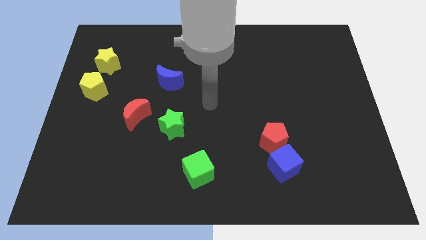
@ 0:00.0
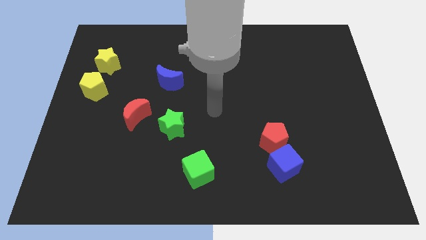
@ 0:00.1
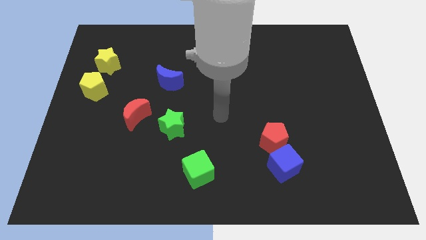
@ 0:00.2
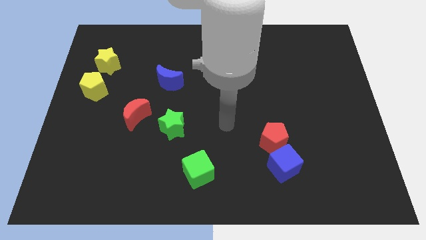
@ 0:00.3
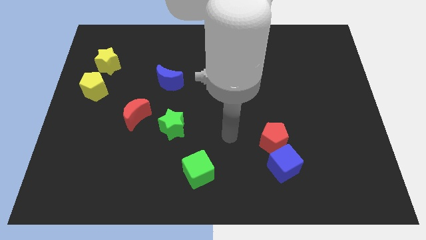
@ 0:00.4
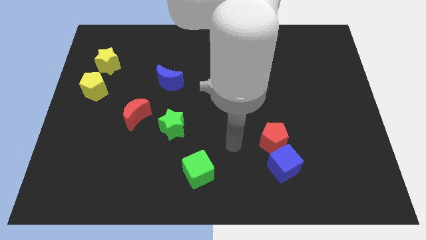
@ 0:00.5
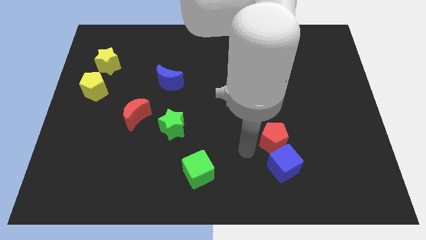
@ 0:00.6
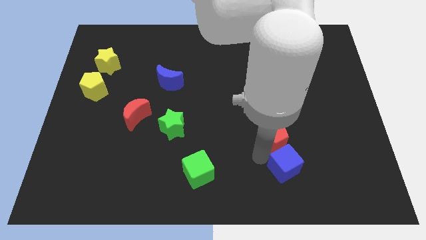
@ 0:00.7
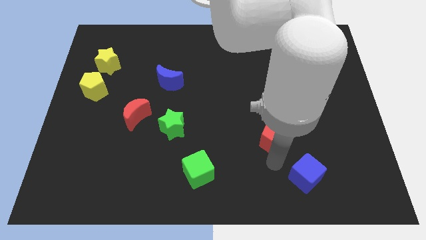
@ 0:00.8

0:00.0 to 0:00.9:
pull the red pentagon apart from the blue cube

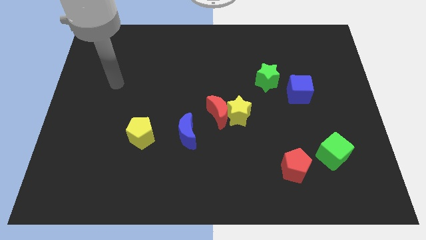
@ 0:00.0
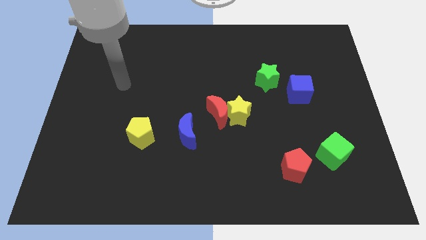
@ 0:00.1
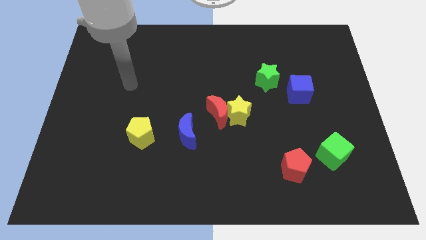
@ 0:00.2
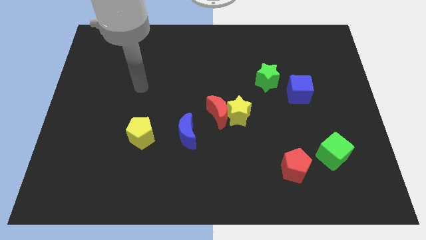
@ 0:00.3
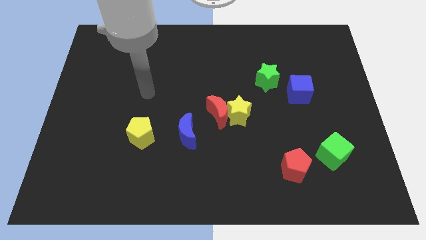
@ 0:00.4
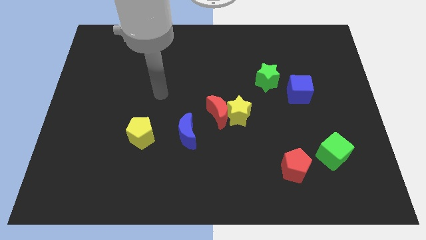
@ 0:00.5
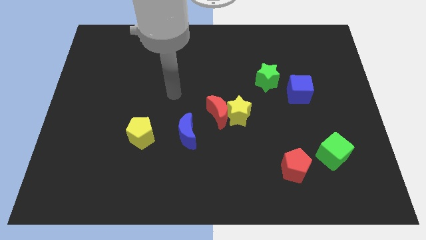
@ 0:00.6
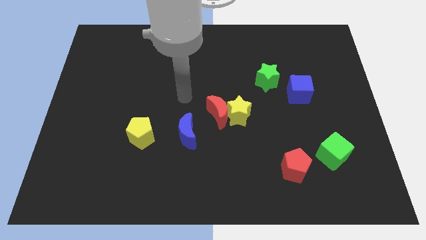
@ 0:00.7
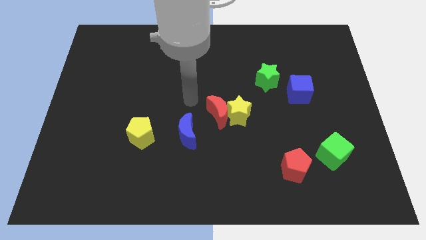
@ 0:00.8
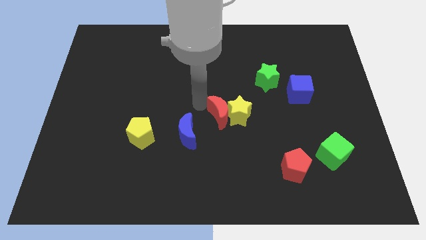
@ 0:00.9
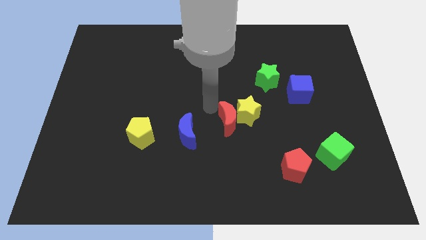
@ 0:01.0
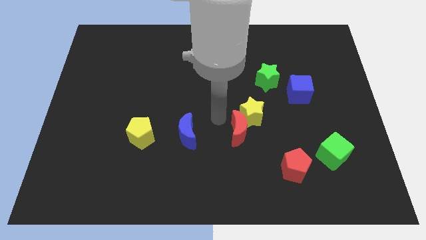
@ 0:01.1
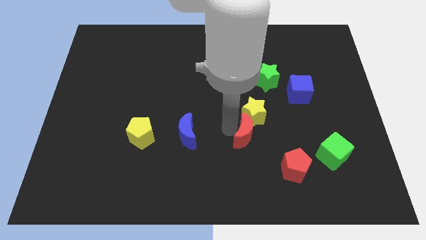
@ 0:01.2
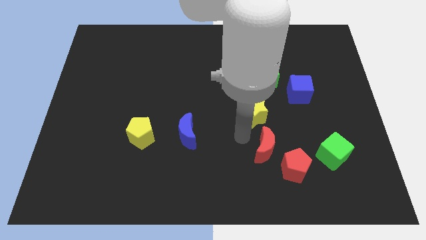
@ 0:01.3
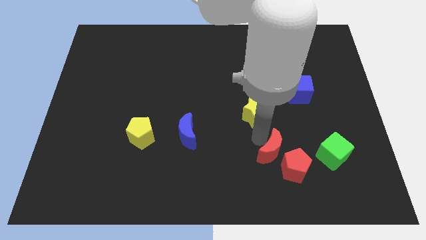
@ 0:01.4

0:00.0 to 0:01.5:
pull the yellow star apart from the red moon

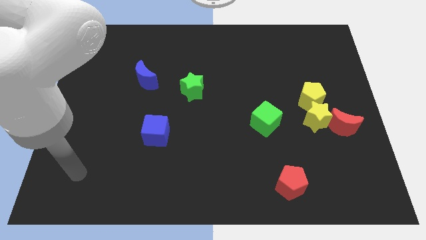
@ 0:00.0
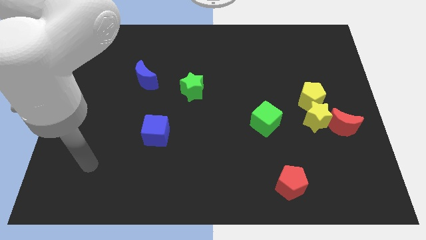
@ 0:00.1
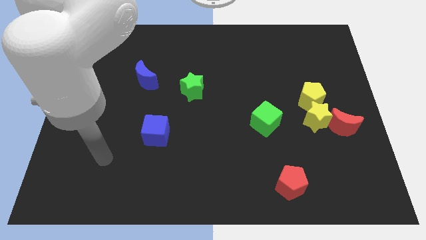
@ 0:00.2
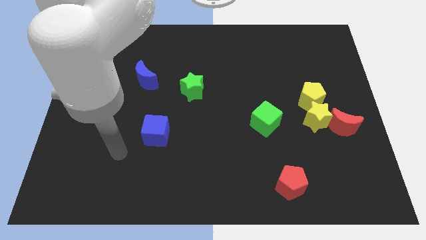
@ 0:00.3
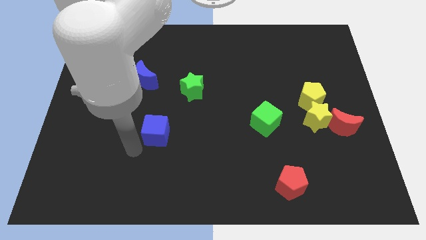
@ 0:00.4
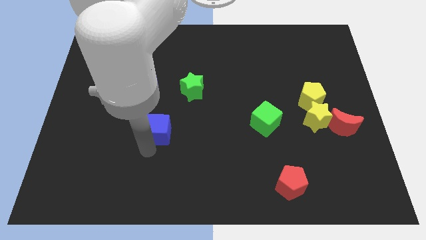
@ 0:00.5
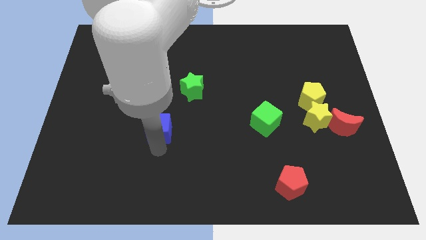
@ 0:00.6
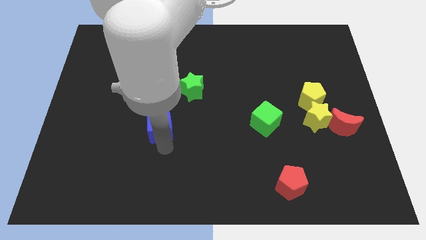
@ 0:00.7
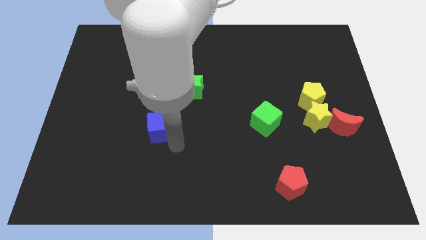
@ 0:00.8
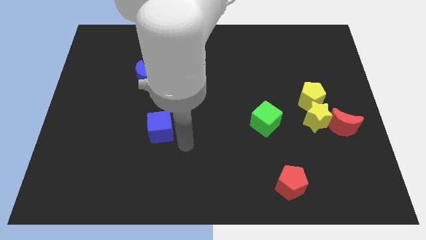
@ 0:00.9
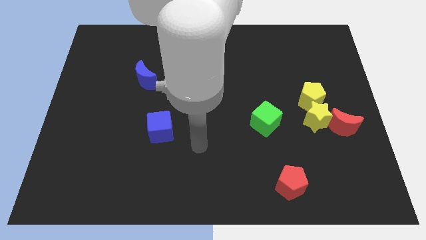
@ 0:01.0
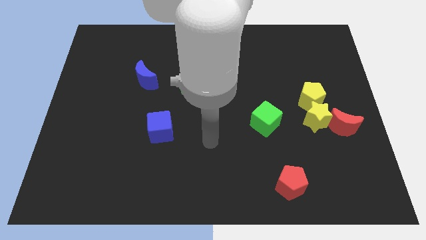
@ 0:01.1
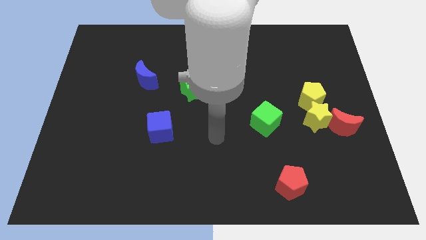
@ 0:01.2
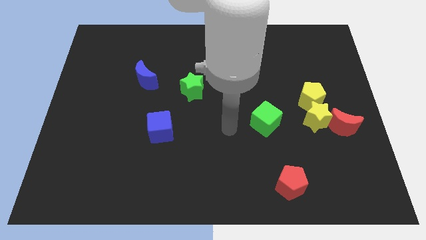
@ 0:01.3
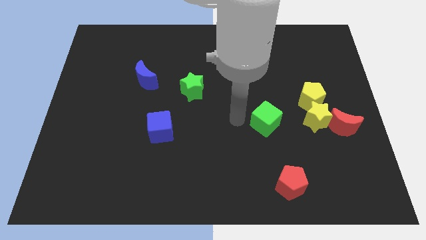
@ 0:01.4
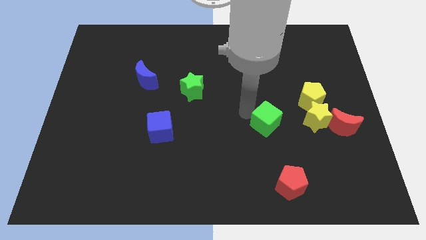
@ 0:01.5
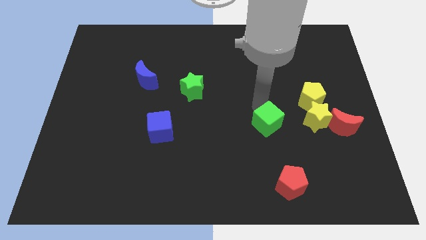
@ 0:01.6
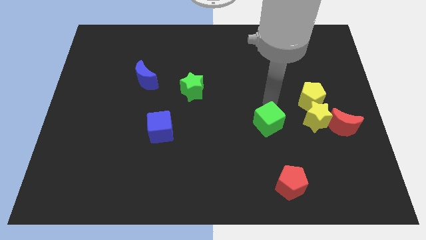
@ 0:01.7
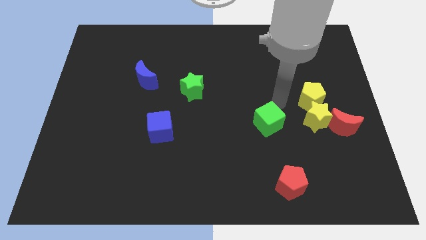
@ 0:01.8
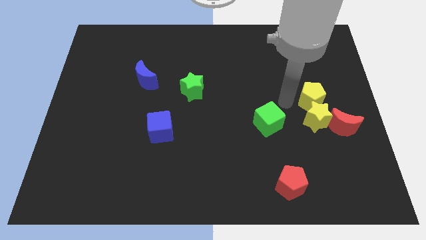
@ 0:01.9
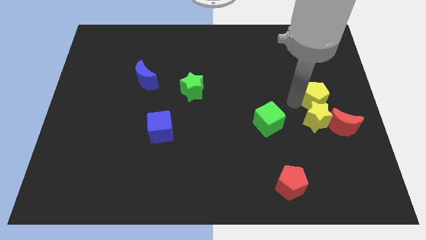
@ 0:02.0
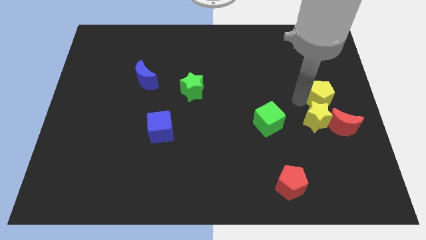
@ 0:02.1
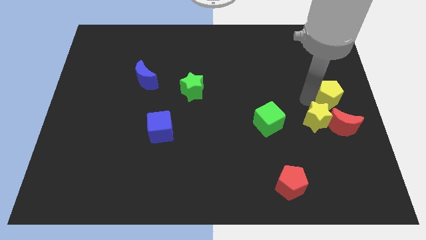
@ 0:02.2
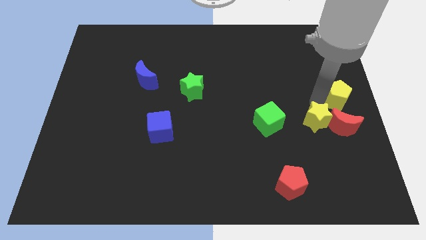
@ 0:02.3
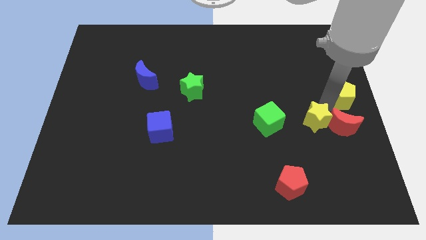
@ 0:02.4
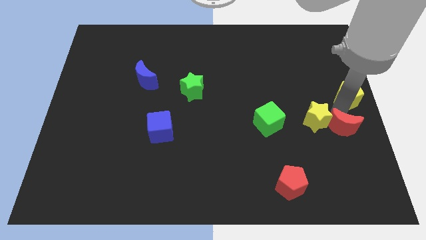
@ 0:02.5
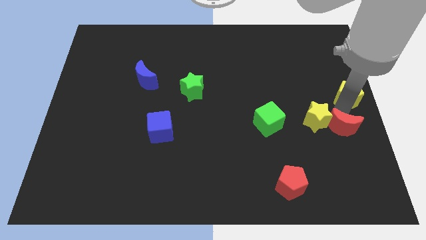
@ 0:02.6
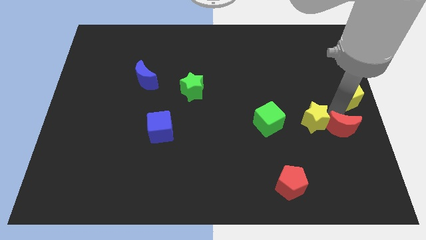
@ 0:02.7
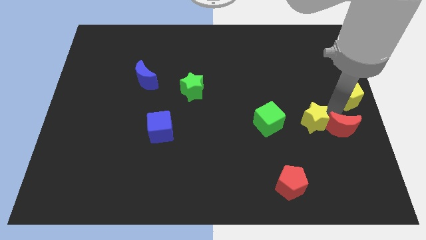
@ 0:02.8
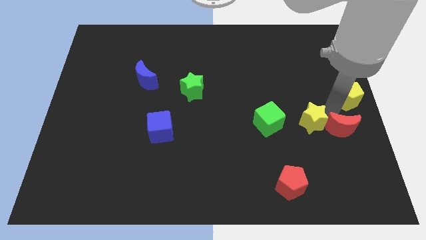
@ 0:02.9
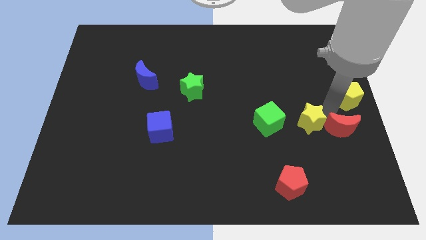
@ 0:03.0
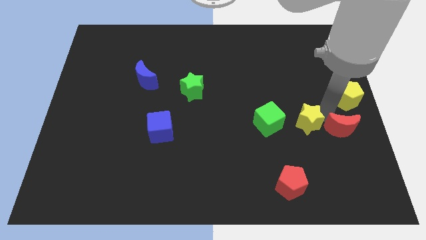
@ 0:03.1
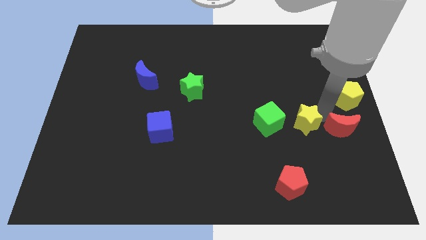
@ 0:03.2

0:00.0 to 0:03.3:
pull the yellow star apart from the yellow pentagon and red moon

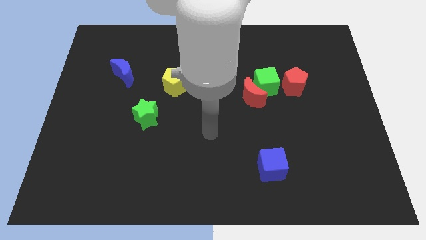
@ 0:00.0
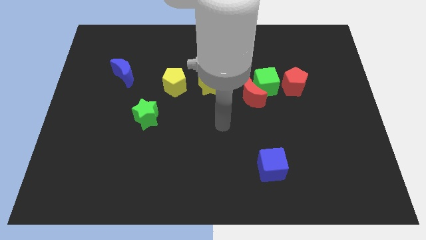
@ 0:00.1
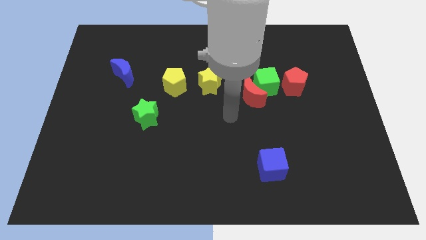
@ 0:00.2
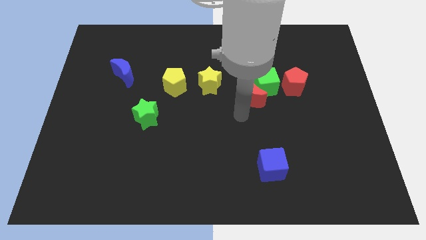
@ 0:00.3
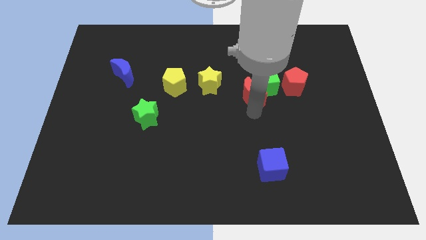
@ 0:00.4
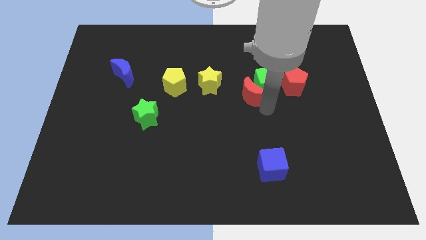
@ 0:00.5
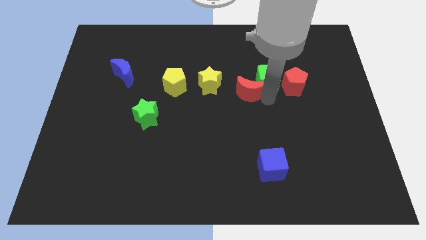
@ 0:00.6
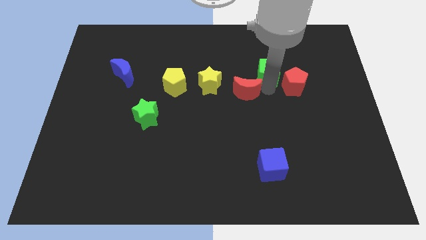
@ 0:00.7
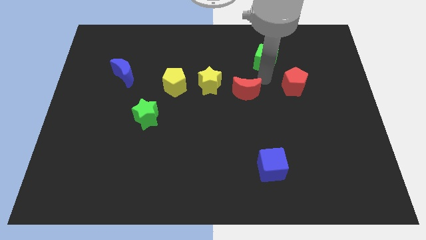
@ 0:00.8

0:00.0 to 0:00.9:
move the red moon away from the green cube

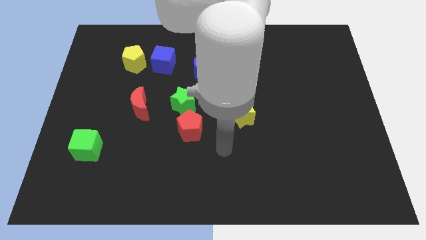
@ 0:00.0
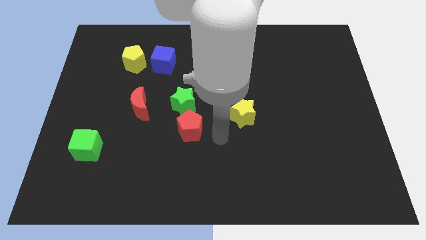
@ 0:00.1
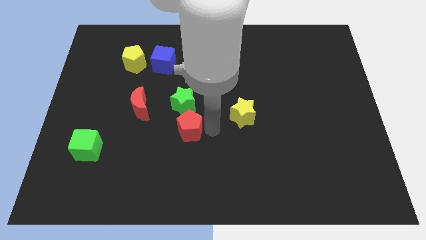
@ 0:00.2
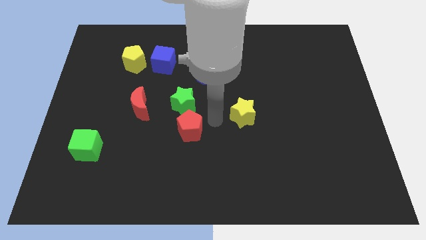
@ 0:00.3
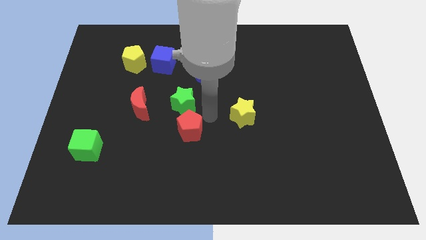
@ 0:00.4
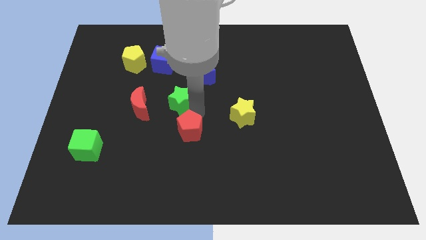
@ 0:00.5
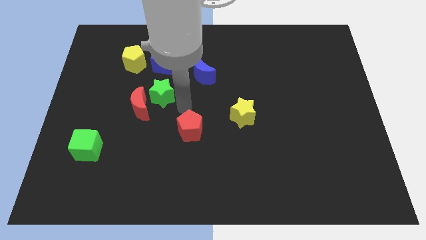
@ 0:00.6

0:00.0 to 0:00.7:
move the red pentagon away from the green star

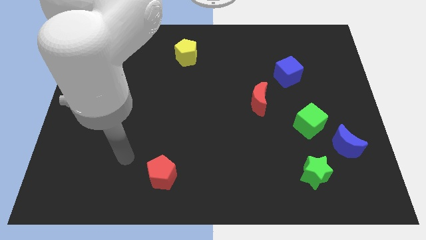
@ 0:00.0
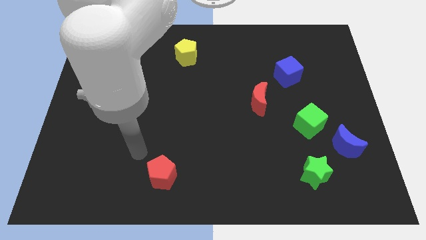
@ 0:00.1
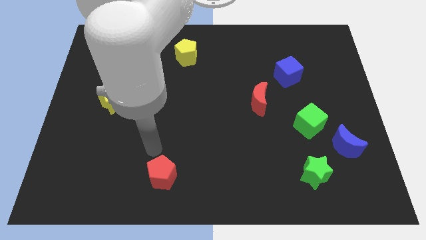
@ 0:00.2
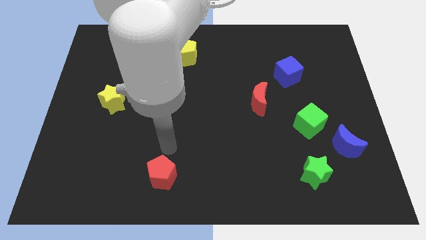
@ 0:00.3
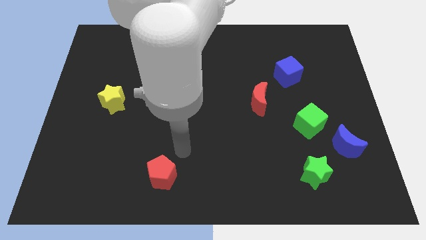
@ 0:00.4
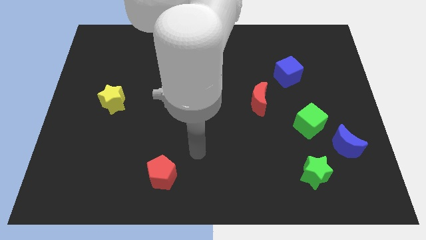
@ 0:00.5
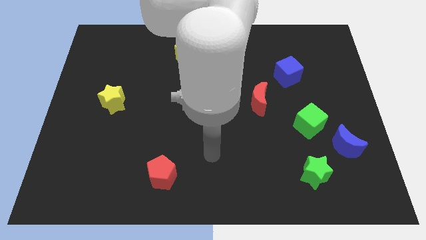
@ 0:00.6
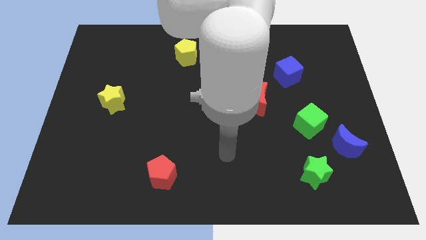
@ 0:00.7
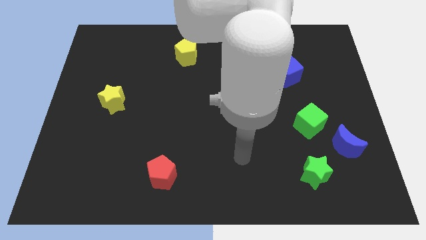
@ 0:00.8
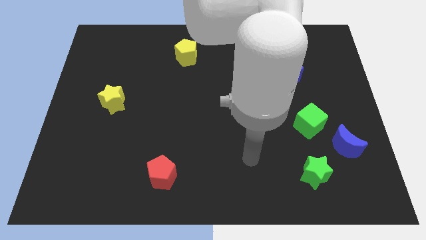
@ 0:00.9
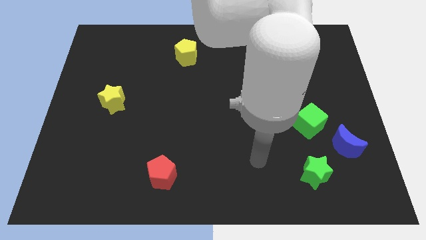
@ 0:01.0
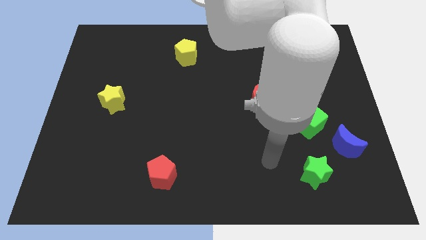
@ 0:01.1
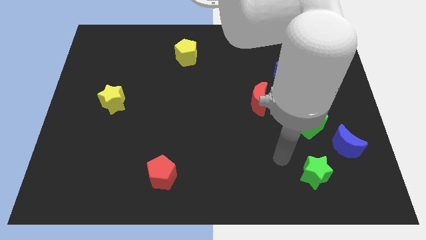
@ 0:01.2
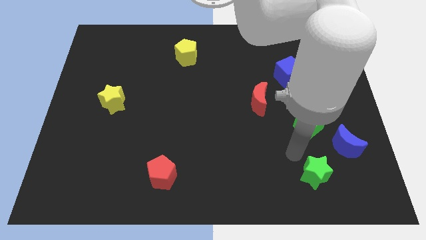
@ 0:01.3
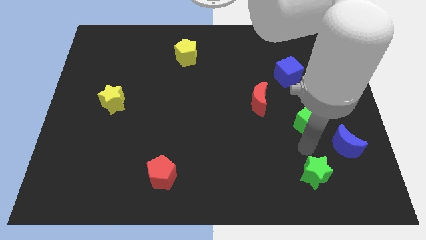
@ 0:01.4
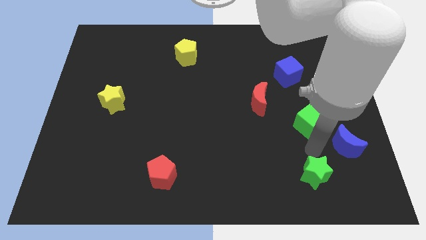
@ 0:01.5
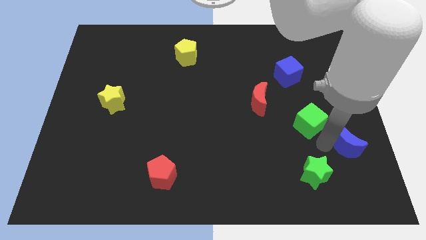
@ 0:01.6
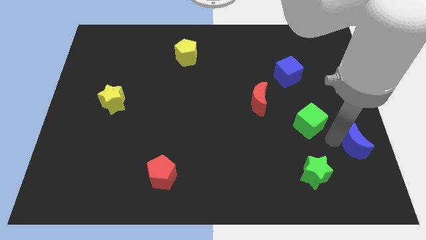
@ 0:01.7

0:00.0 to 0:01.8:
pull the green cube apart from the blue moon

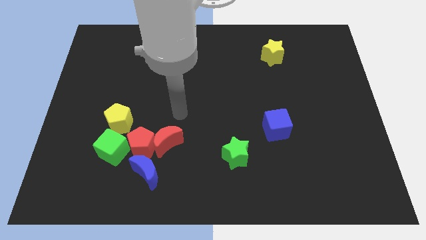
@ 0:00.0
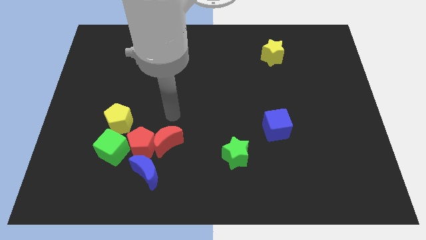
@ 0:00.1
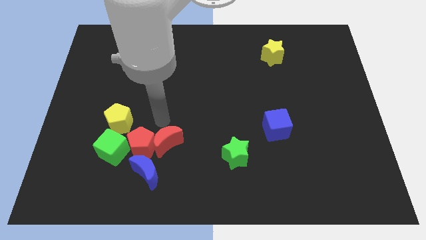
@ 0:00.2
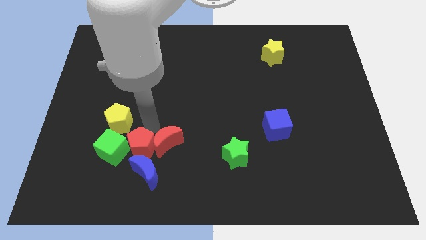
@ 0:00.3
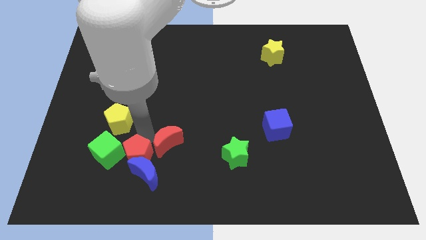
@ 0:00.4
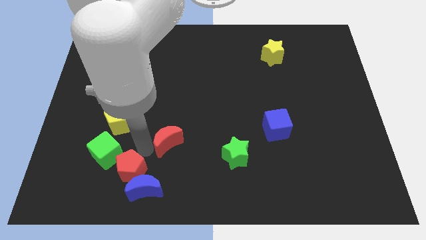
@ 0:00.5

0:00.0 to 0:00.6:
pull the red moon apart from the red pentagon and blue moon
